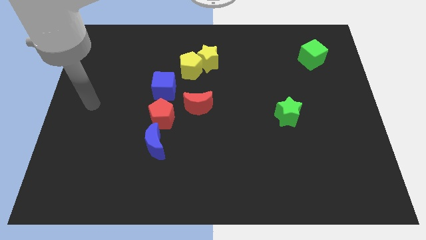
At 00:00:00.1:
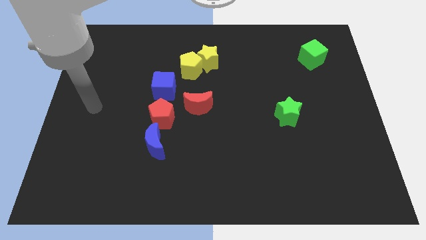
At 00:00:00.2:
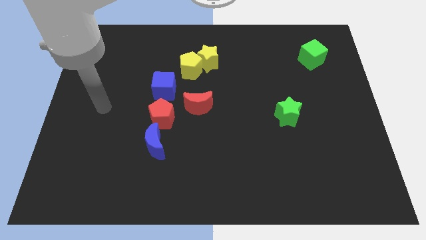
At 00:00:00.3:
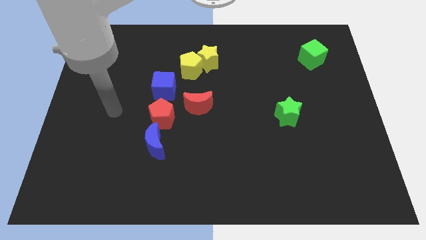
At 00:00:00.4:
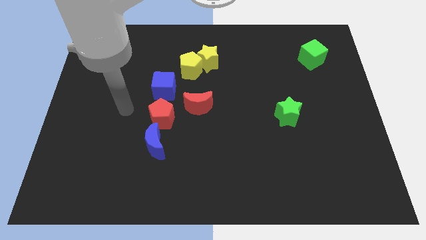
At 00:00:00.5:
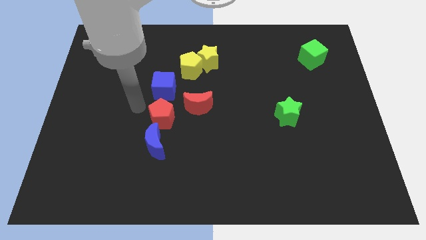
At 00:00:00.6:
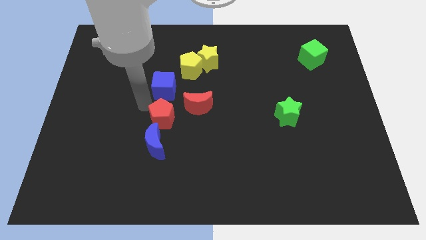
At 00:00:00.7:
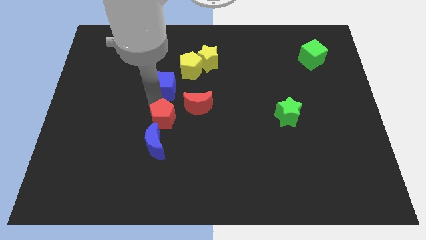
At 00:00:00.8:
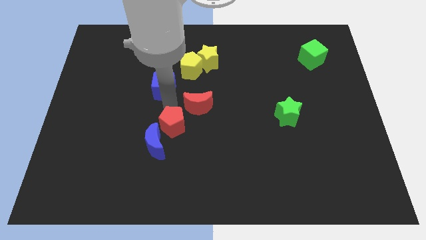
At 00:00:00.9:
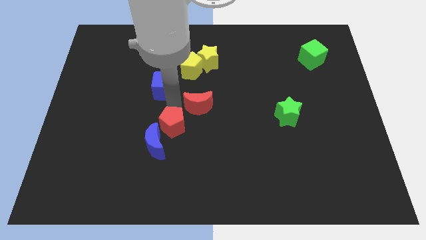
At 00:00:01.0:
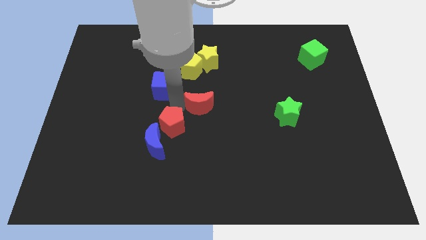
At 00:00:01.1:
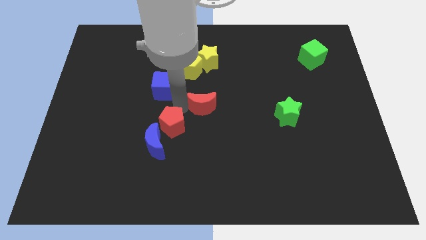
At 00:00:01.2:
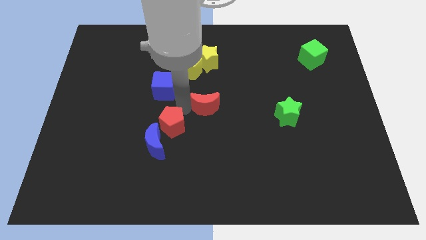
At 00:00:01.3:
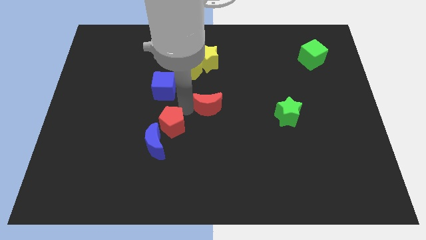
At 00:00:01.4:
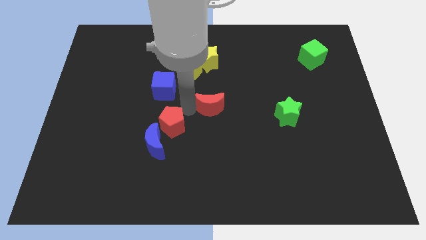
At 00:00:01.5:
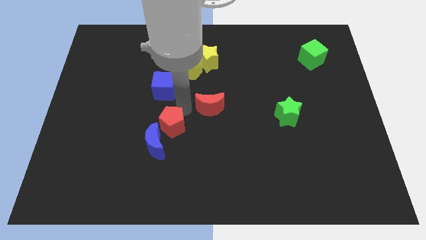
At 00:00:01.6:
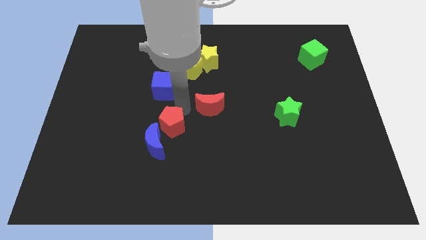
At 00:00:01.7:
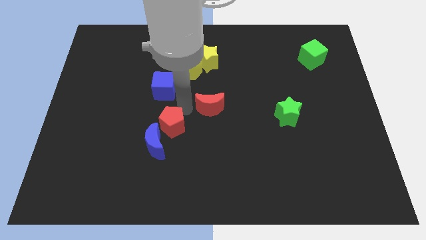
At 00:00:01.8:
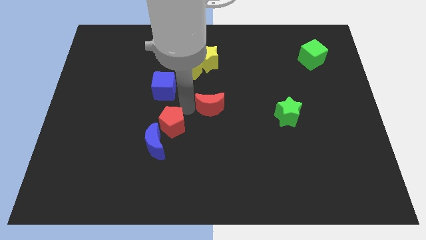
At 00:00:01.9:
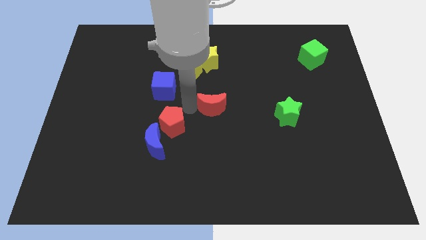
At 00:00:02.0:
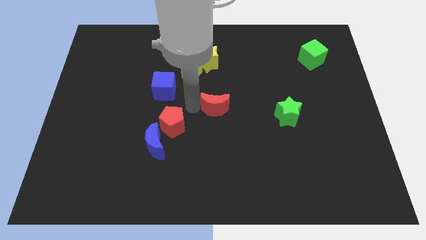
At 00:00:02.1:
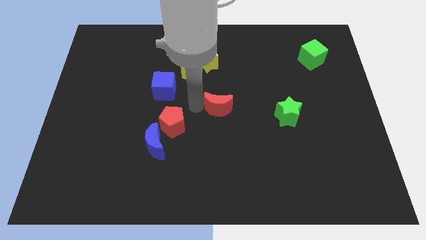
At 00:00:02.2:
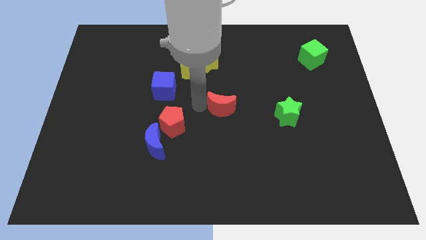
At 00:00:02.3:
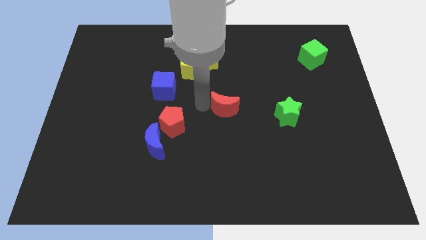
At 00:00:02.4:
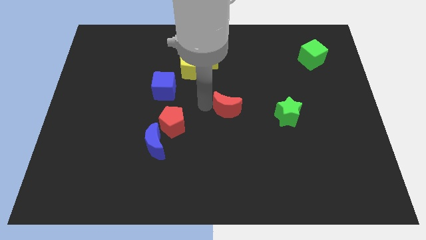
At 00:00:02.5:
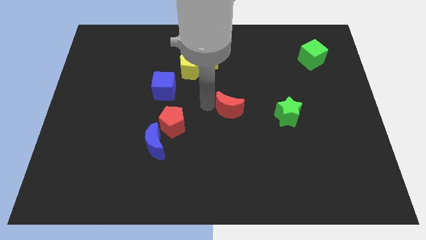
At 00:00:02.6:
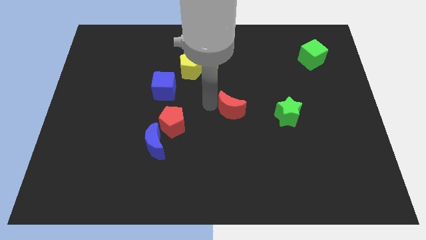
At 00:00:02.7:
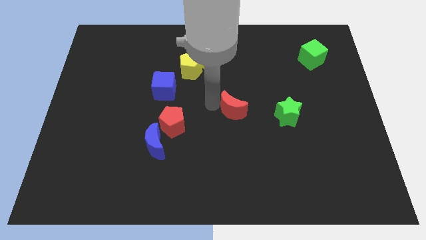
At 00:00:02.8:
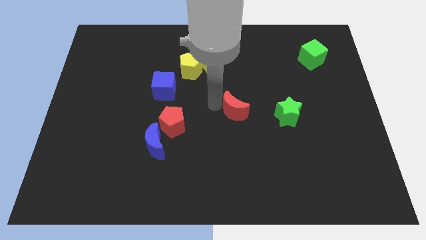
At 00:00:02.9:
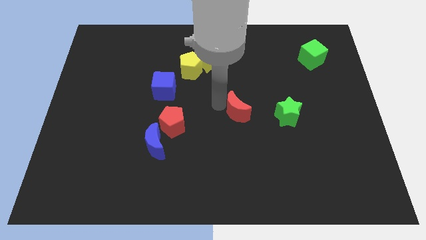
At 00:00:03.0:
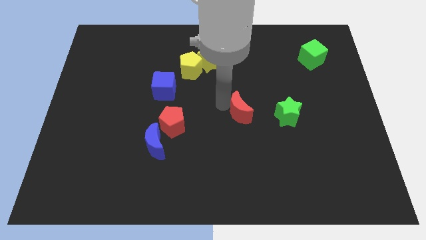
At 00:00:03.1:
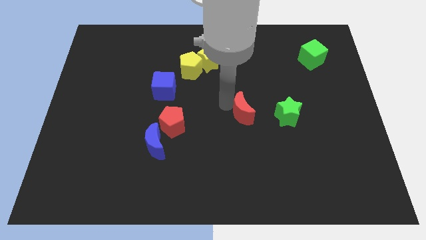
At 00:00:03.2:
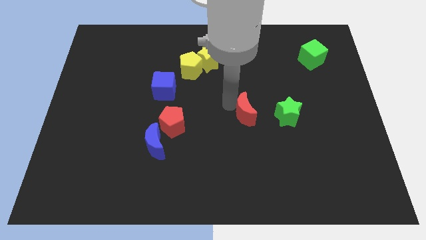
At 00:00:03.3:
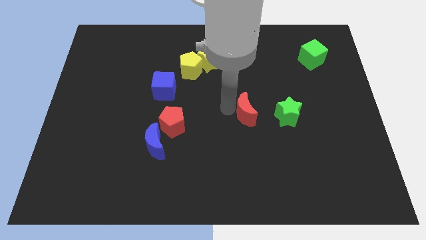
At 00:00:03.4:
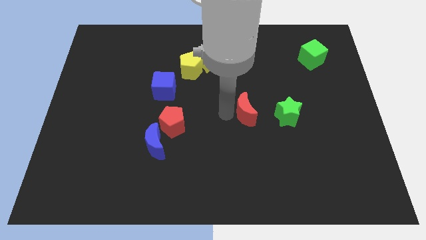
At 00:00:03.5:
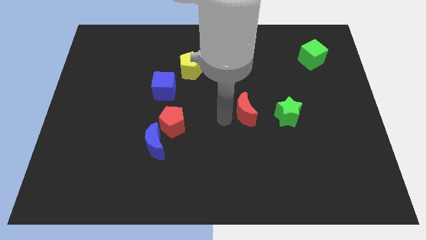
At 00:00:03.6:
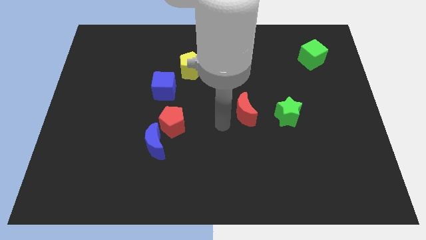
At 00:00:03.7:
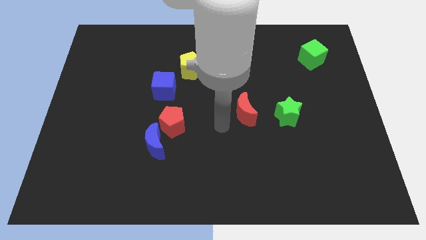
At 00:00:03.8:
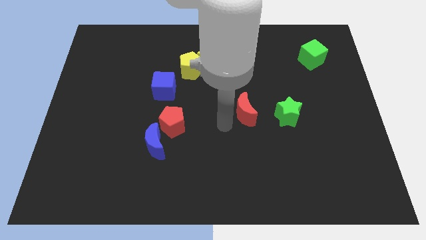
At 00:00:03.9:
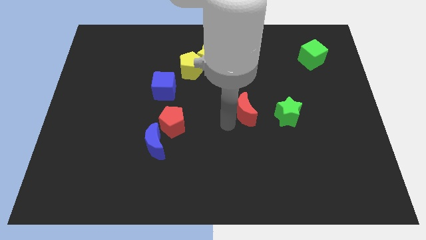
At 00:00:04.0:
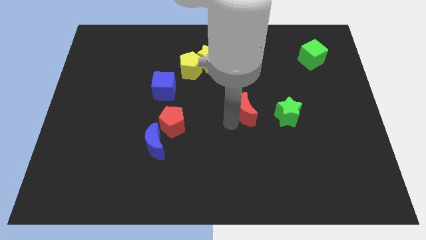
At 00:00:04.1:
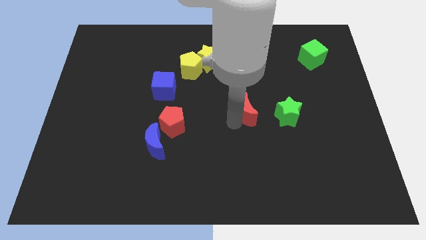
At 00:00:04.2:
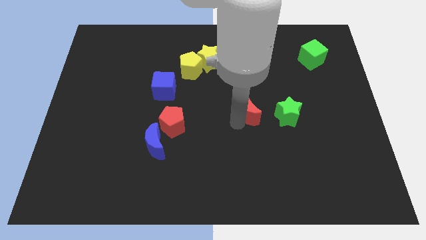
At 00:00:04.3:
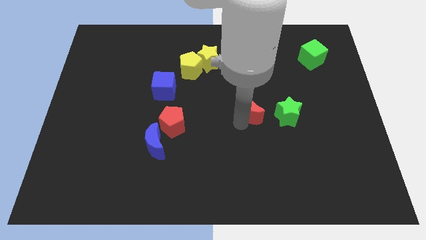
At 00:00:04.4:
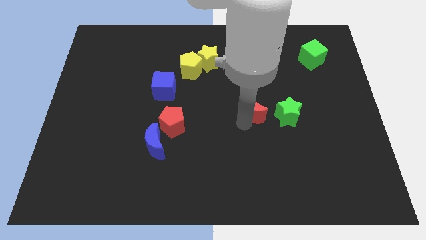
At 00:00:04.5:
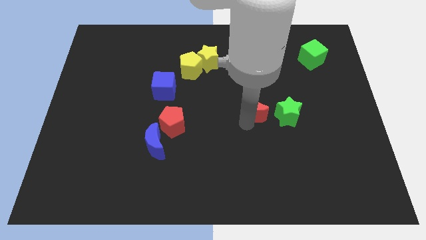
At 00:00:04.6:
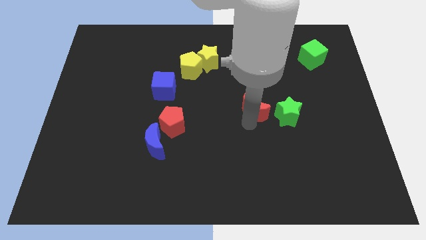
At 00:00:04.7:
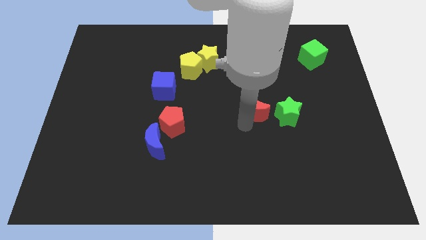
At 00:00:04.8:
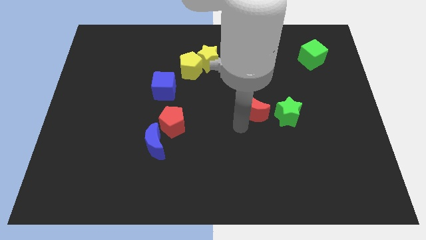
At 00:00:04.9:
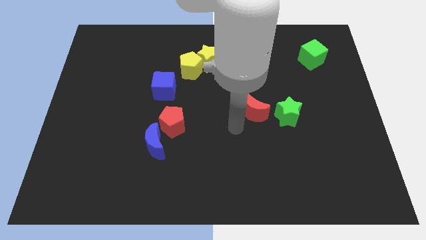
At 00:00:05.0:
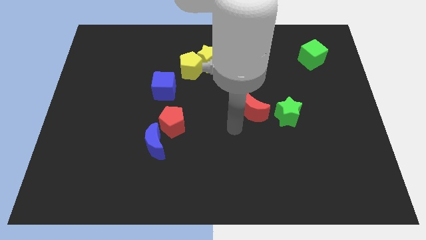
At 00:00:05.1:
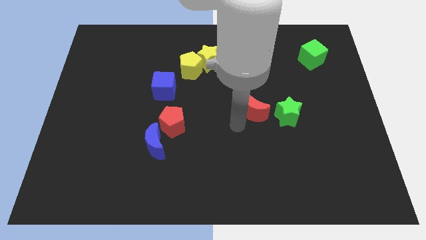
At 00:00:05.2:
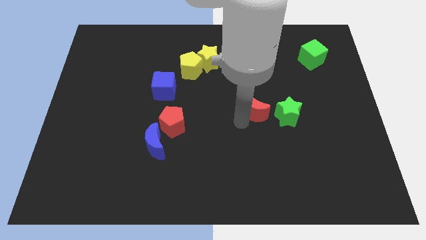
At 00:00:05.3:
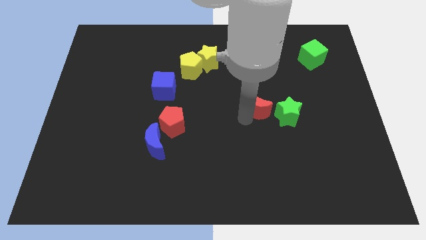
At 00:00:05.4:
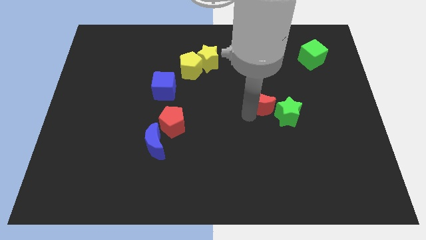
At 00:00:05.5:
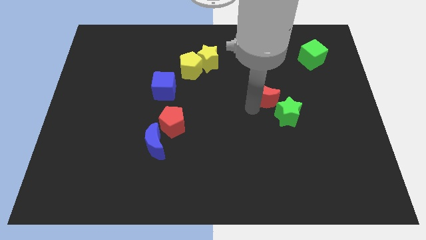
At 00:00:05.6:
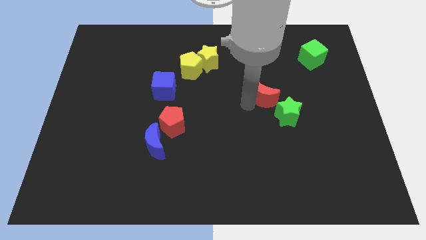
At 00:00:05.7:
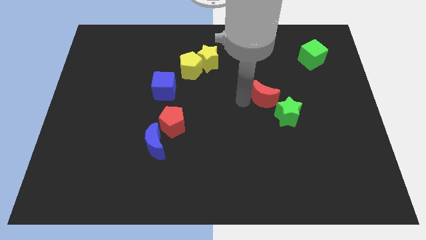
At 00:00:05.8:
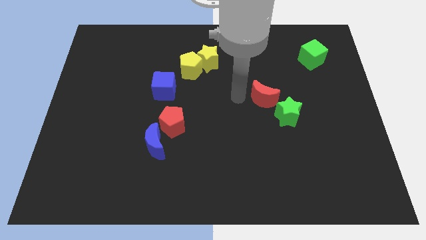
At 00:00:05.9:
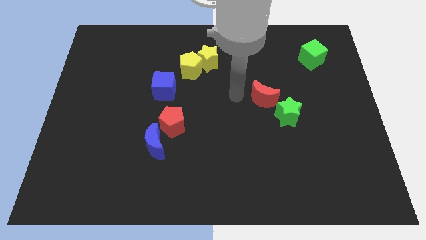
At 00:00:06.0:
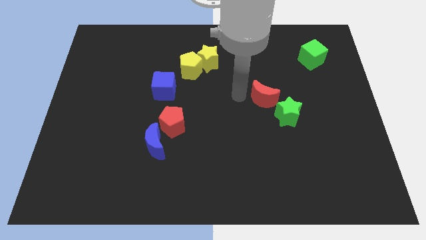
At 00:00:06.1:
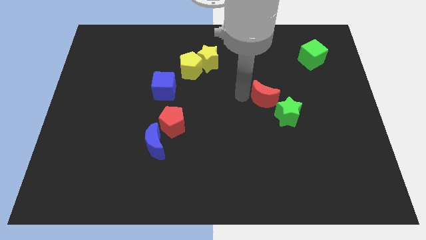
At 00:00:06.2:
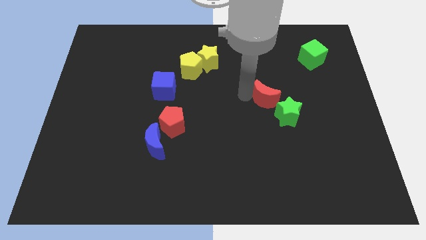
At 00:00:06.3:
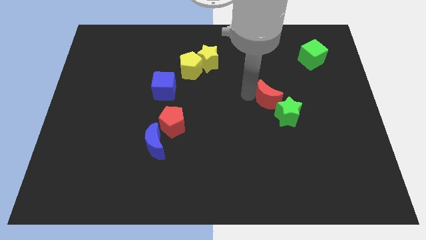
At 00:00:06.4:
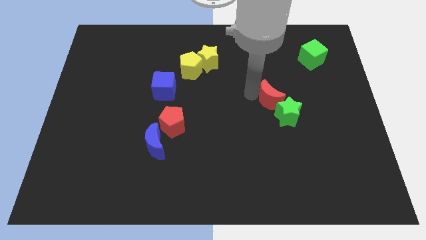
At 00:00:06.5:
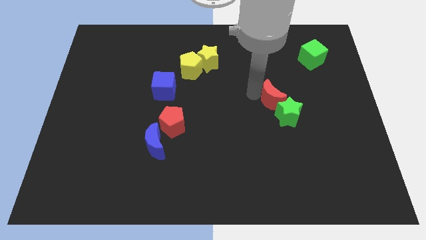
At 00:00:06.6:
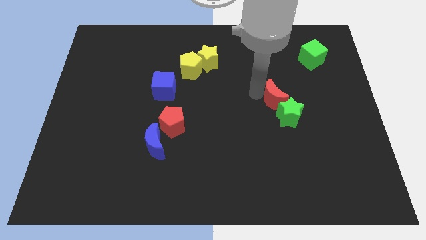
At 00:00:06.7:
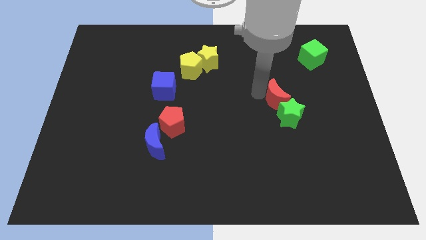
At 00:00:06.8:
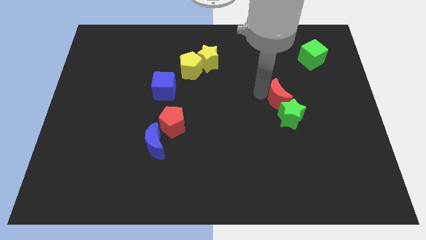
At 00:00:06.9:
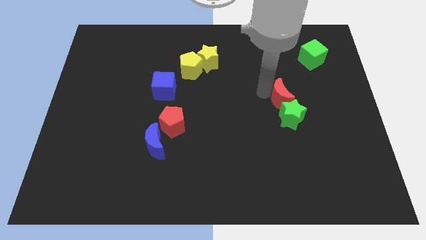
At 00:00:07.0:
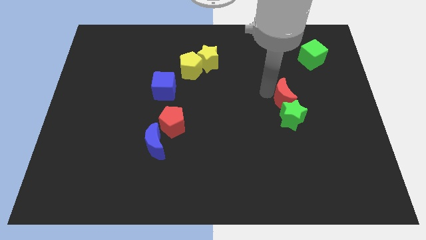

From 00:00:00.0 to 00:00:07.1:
slide the red moon to the right

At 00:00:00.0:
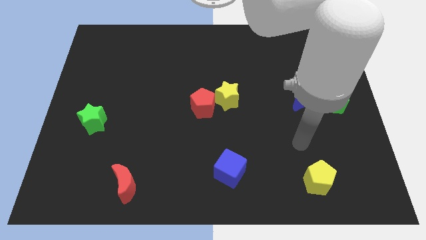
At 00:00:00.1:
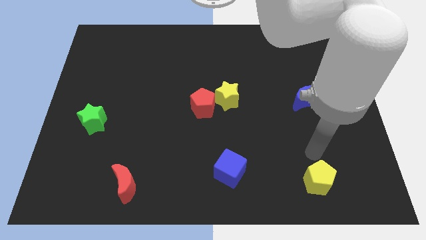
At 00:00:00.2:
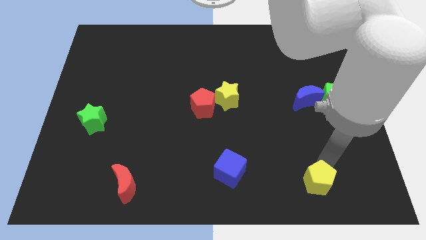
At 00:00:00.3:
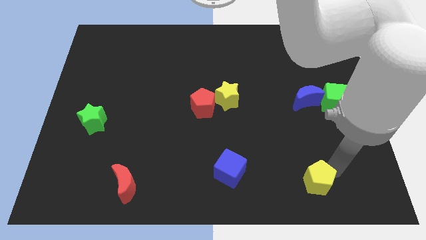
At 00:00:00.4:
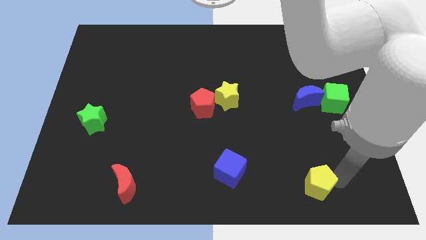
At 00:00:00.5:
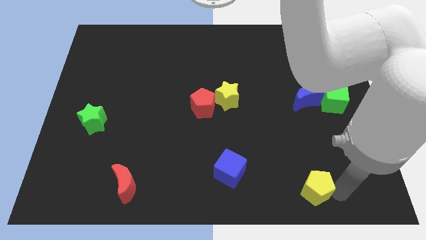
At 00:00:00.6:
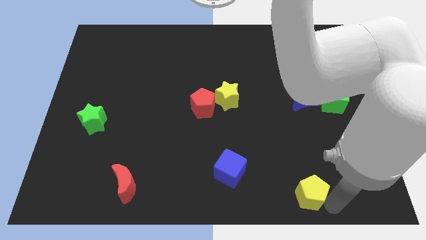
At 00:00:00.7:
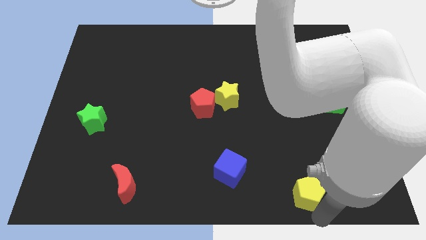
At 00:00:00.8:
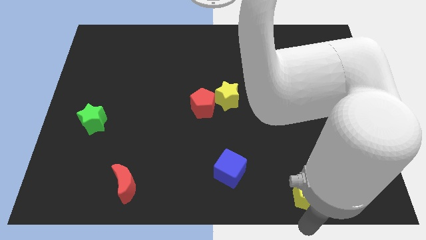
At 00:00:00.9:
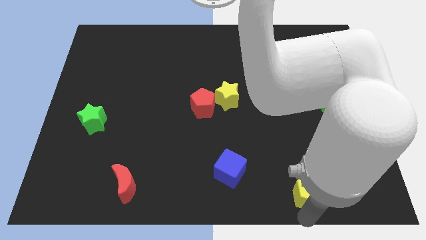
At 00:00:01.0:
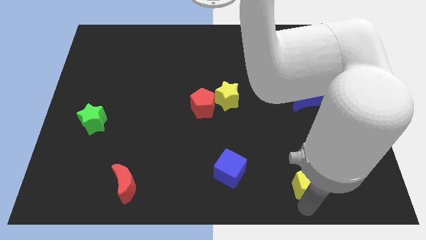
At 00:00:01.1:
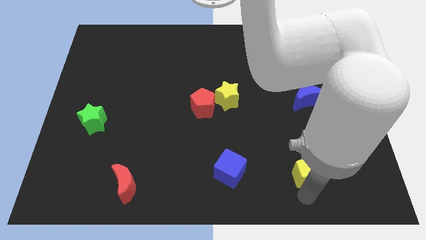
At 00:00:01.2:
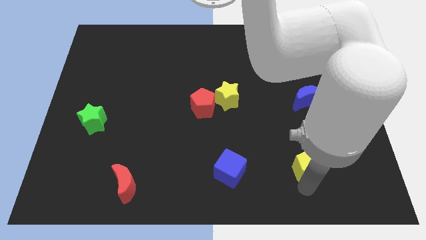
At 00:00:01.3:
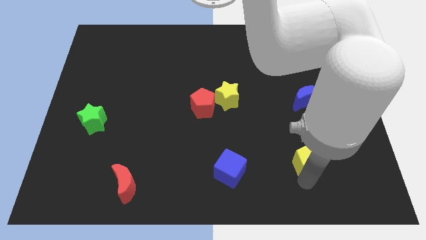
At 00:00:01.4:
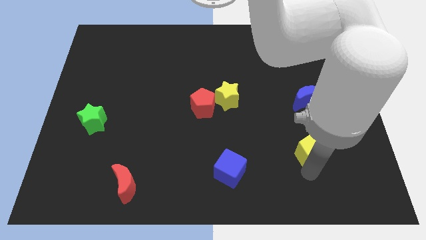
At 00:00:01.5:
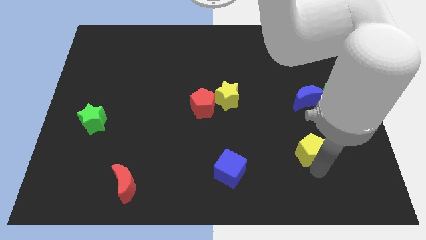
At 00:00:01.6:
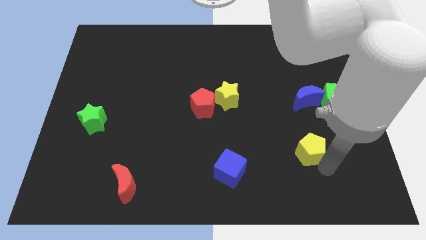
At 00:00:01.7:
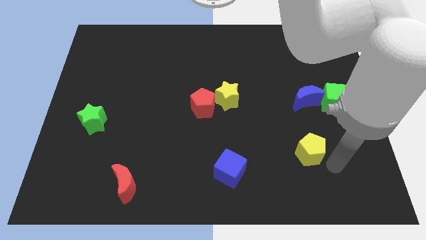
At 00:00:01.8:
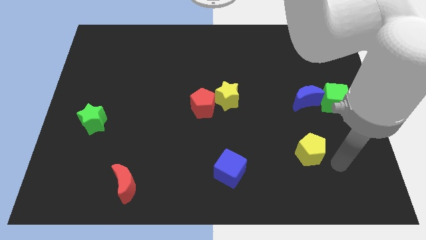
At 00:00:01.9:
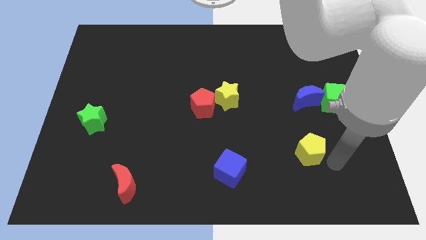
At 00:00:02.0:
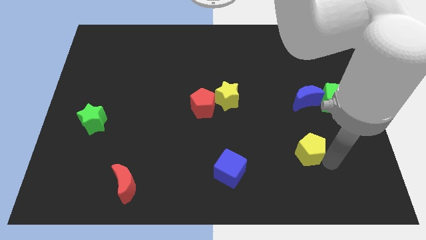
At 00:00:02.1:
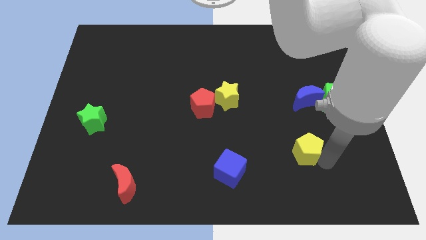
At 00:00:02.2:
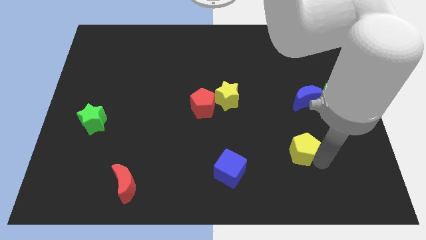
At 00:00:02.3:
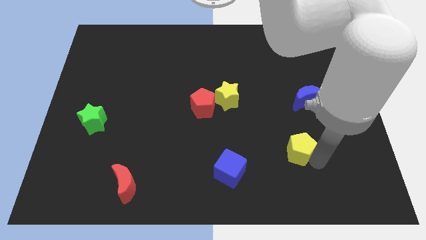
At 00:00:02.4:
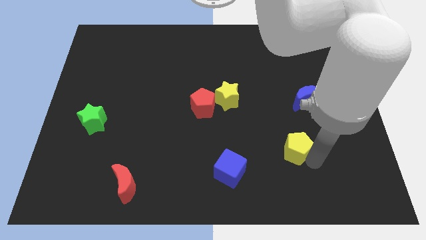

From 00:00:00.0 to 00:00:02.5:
push the yellow pentagon upwards and left diagonally slightly
